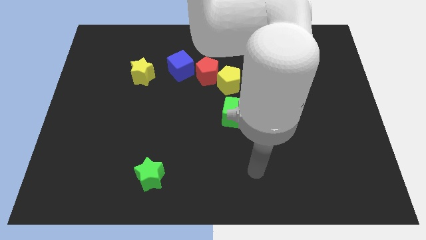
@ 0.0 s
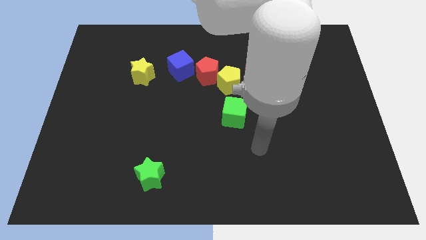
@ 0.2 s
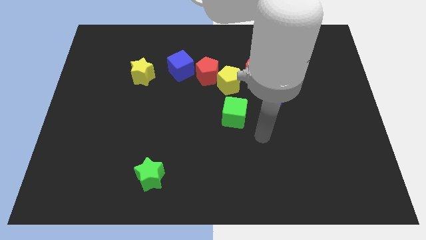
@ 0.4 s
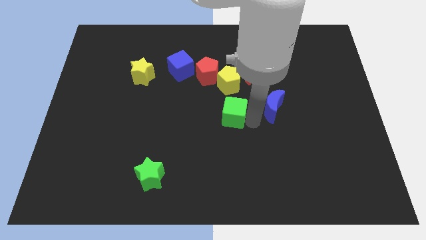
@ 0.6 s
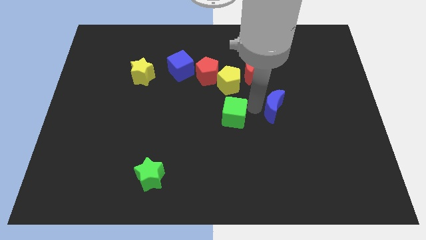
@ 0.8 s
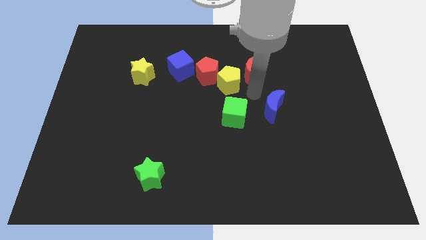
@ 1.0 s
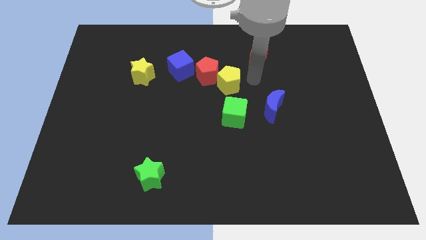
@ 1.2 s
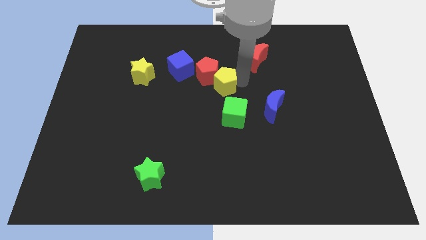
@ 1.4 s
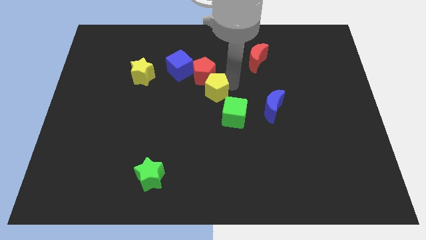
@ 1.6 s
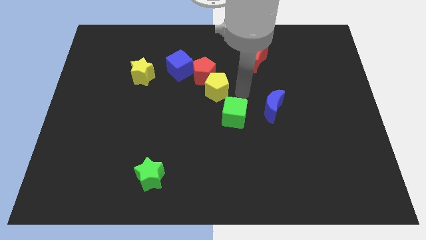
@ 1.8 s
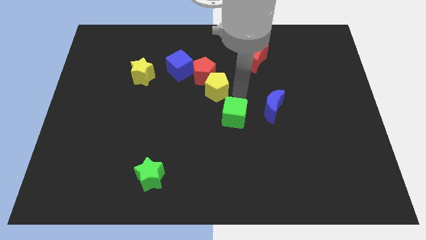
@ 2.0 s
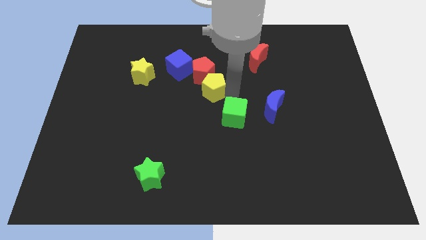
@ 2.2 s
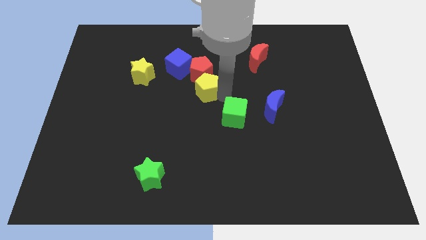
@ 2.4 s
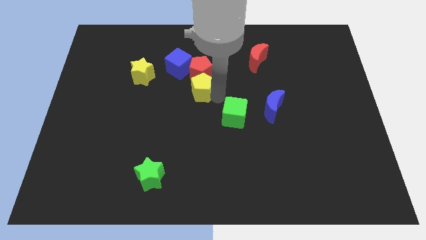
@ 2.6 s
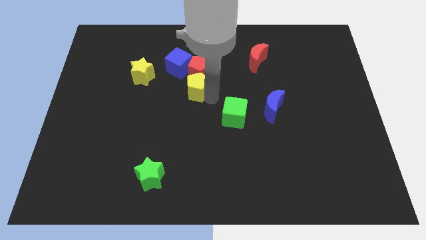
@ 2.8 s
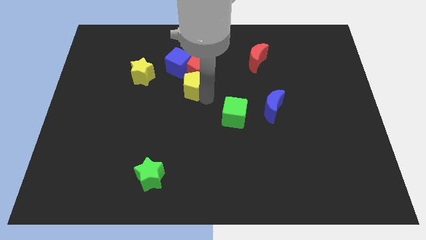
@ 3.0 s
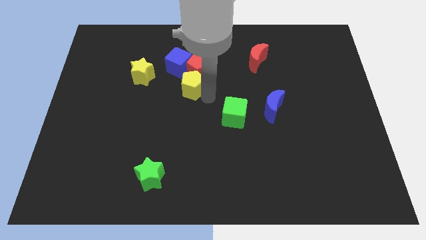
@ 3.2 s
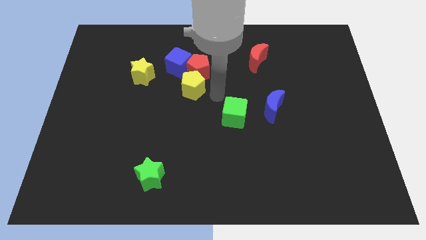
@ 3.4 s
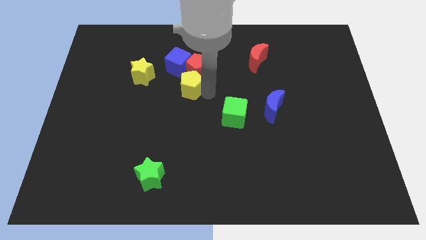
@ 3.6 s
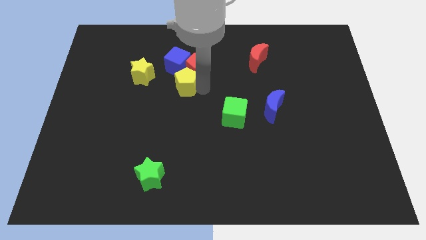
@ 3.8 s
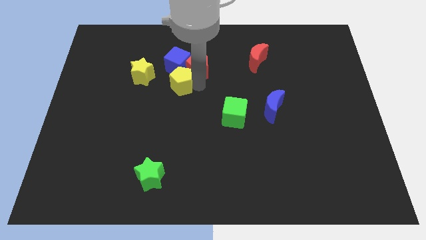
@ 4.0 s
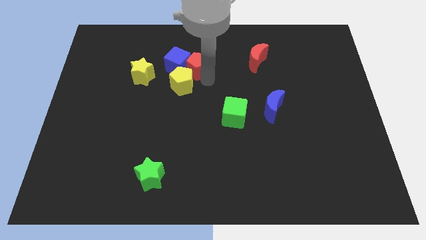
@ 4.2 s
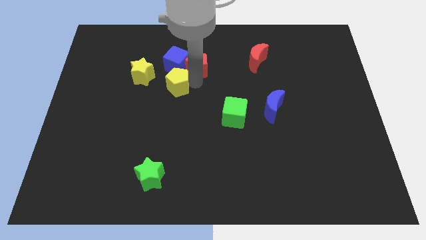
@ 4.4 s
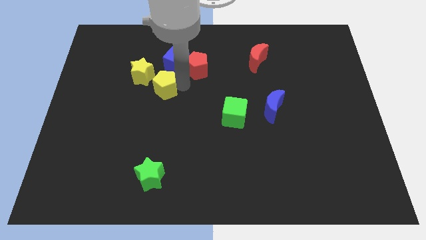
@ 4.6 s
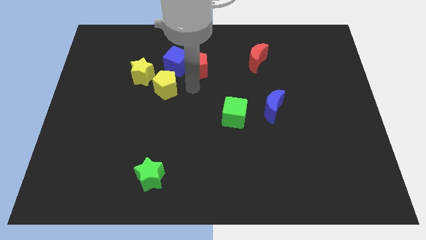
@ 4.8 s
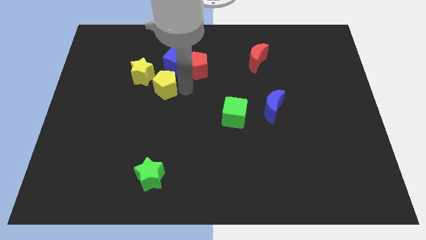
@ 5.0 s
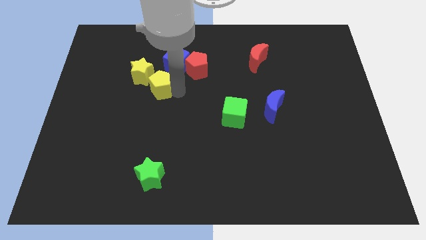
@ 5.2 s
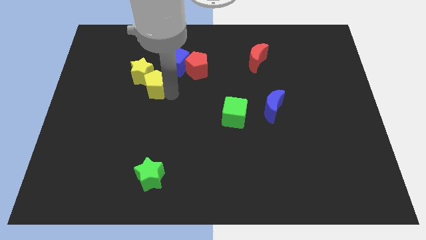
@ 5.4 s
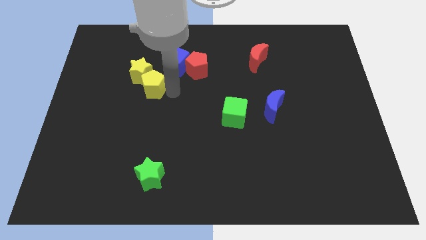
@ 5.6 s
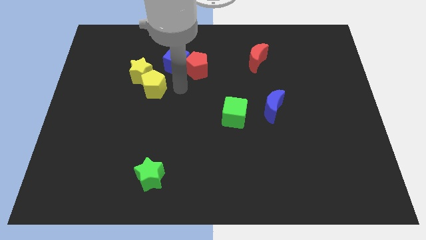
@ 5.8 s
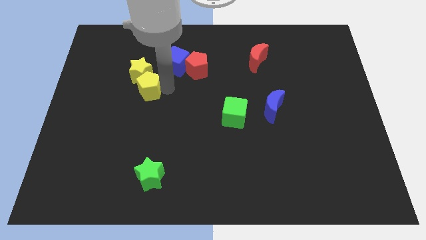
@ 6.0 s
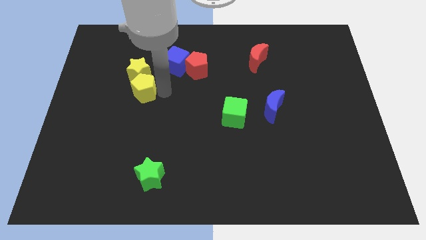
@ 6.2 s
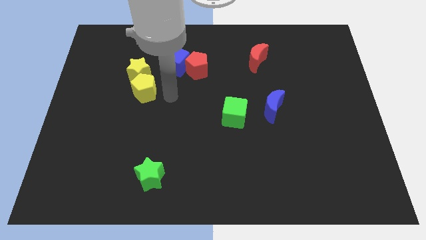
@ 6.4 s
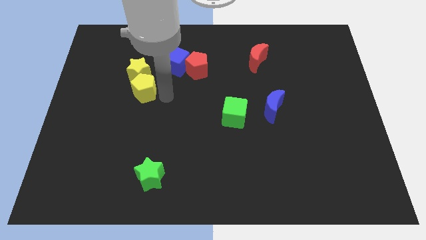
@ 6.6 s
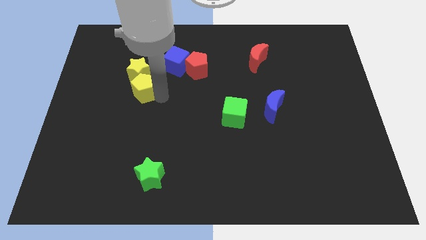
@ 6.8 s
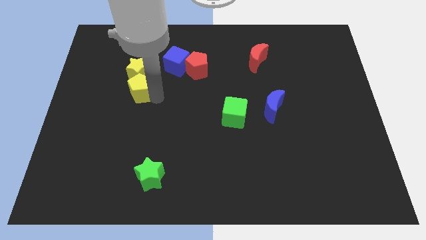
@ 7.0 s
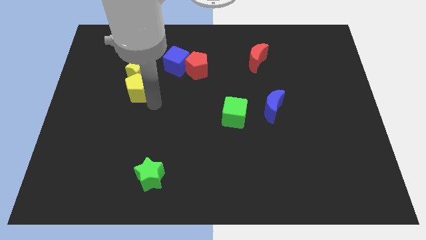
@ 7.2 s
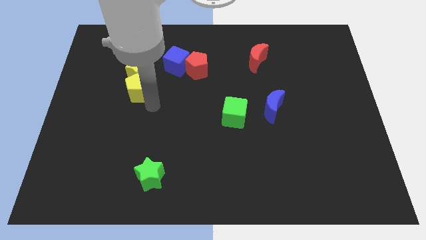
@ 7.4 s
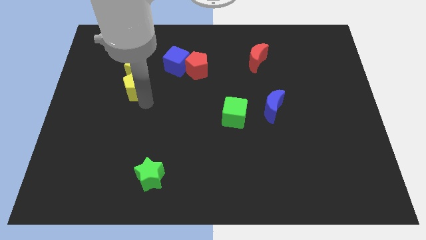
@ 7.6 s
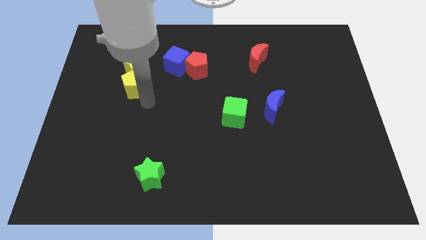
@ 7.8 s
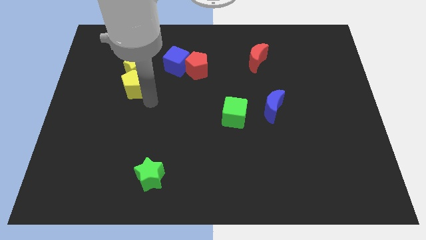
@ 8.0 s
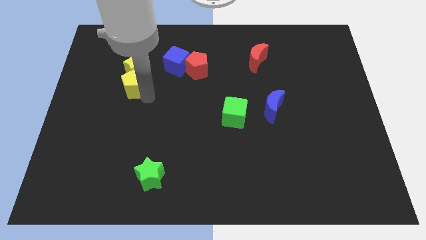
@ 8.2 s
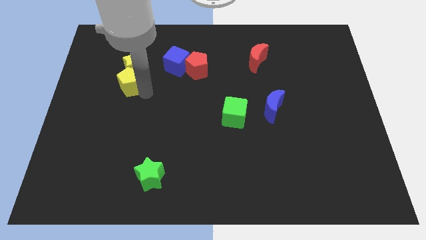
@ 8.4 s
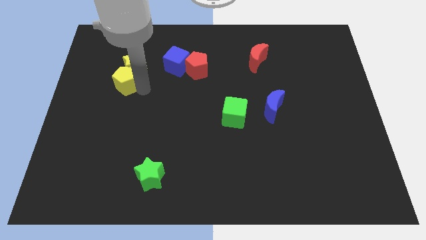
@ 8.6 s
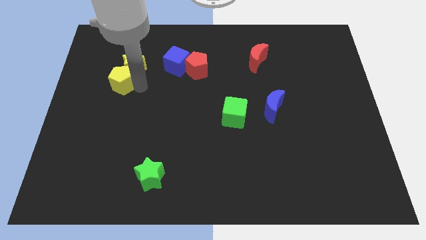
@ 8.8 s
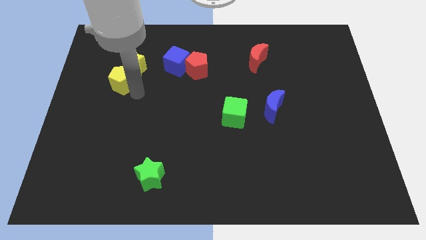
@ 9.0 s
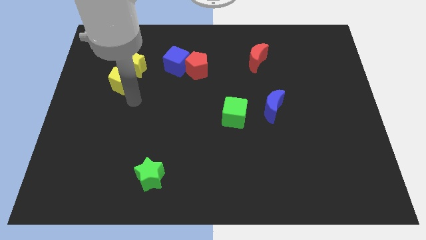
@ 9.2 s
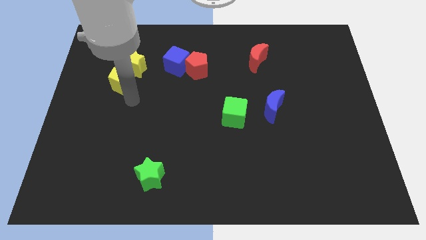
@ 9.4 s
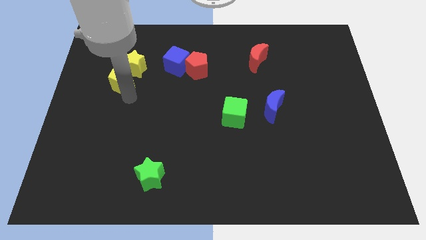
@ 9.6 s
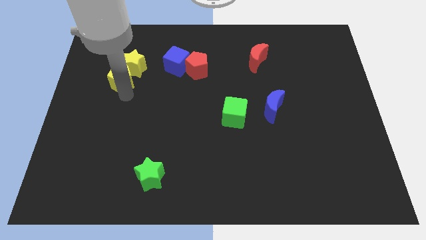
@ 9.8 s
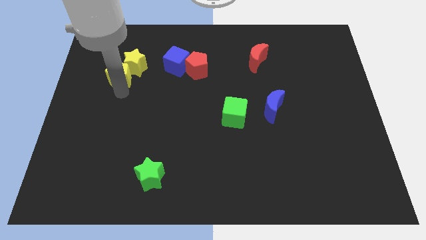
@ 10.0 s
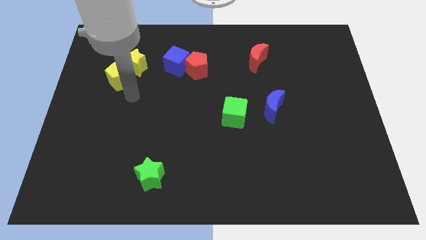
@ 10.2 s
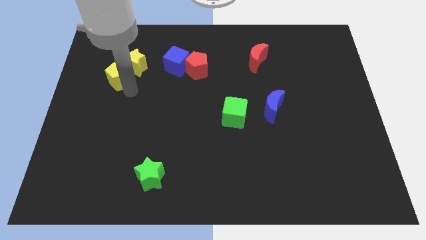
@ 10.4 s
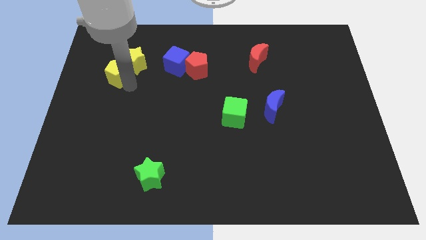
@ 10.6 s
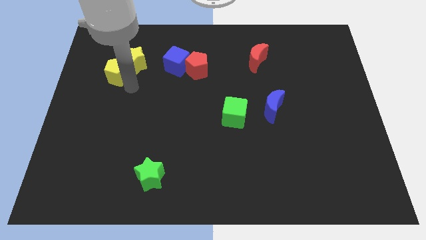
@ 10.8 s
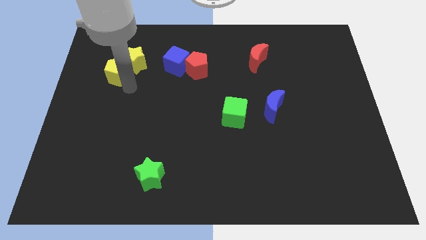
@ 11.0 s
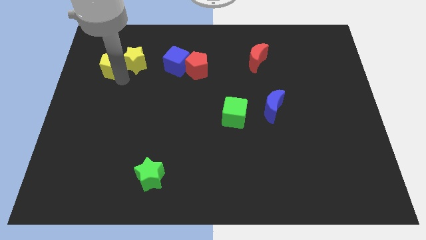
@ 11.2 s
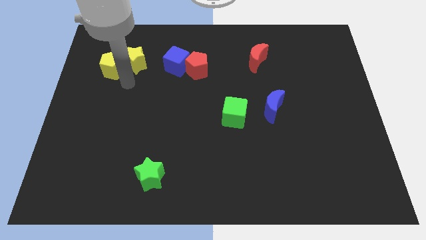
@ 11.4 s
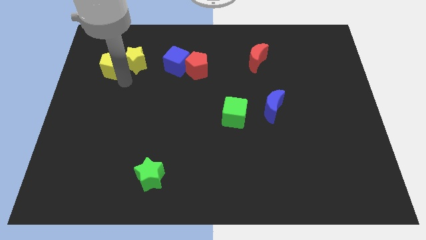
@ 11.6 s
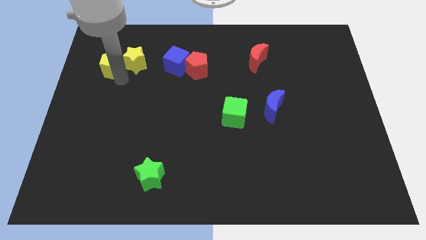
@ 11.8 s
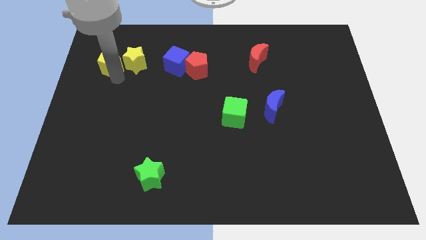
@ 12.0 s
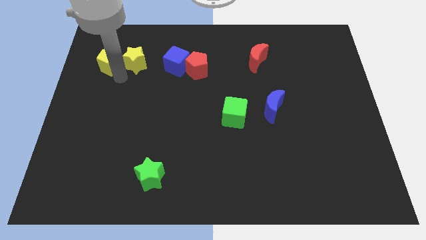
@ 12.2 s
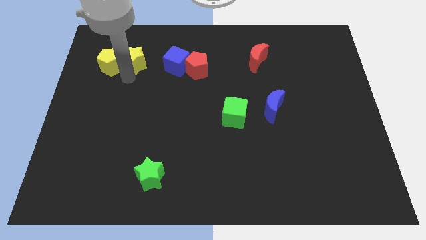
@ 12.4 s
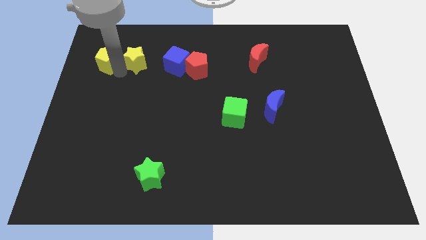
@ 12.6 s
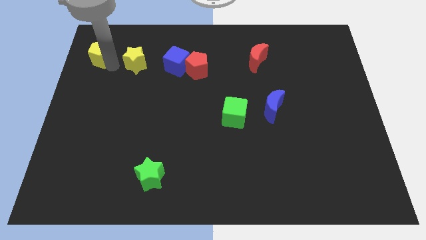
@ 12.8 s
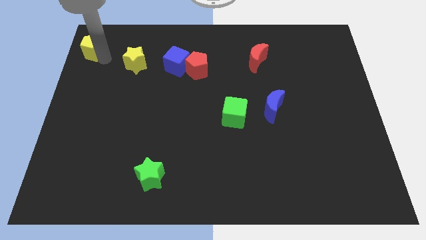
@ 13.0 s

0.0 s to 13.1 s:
push the yellow pentagon to the top left of the board

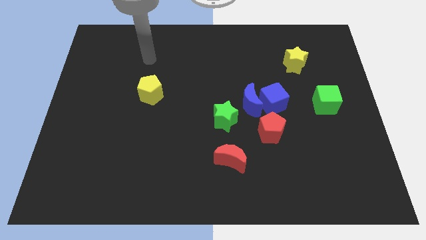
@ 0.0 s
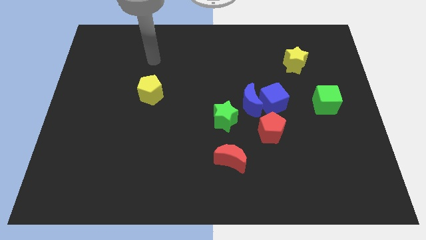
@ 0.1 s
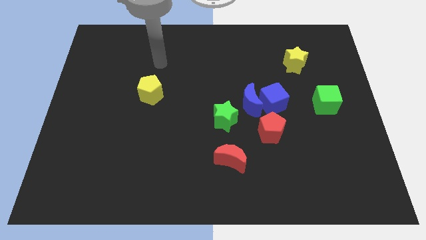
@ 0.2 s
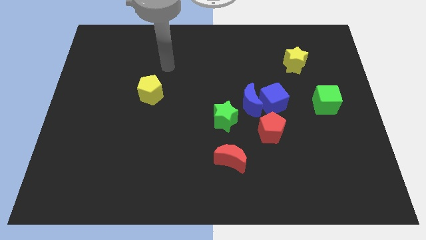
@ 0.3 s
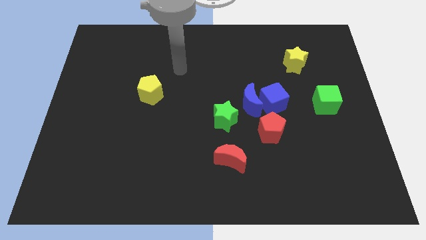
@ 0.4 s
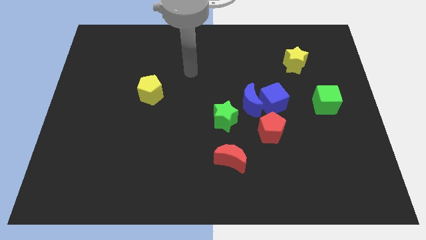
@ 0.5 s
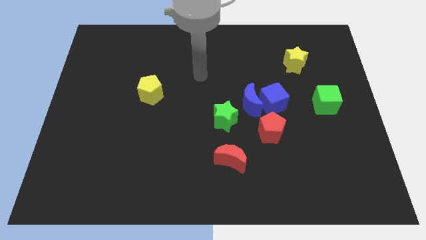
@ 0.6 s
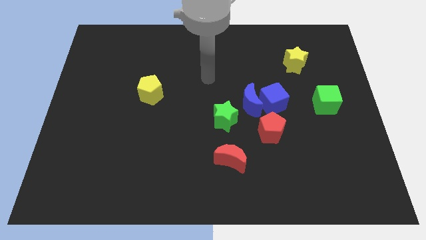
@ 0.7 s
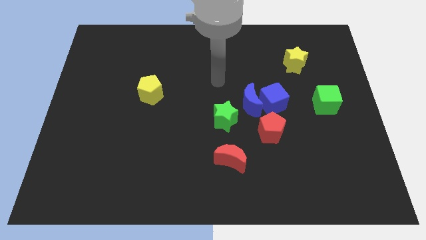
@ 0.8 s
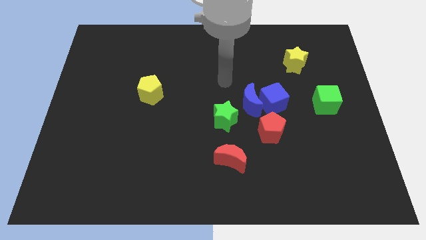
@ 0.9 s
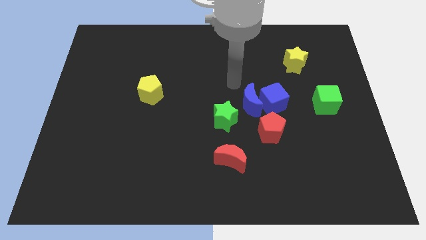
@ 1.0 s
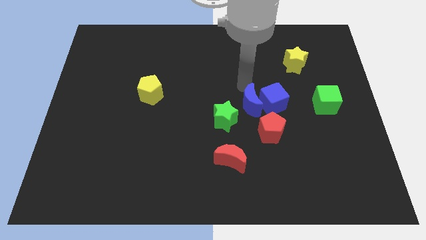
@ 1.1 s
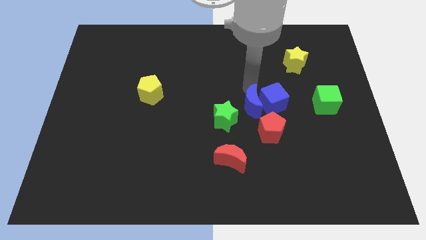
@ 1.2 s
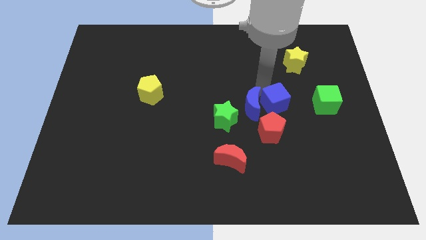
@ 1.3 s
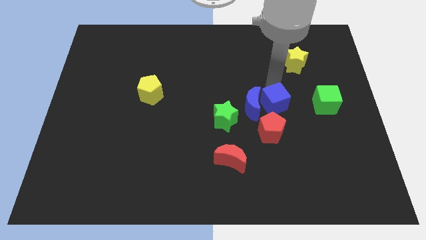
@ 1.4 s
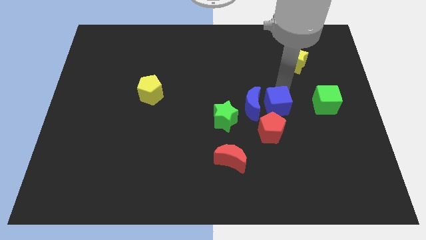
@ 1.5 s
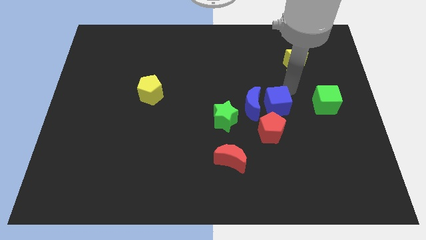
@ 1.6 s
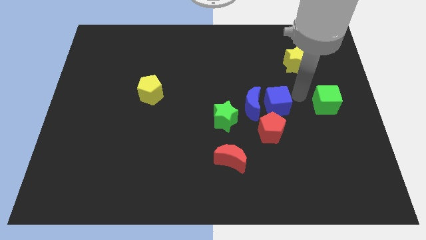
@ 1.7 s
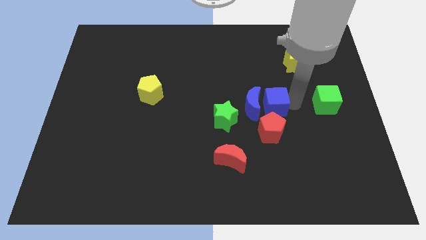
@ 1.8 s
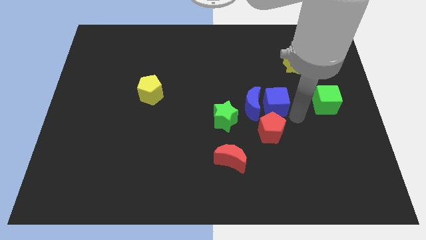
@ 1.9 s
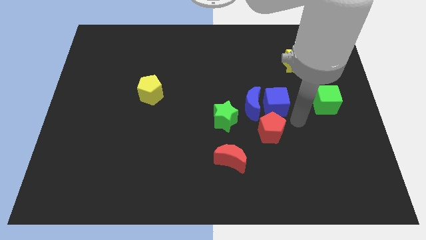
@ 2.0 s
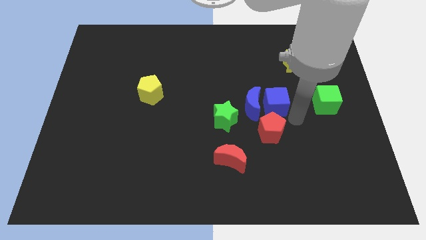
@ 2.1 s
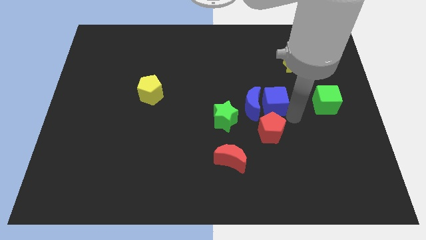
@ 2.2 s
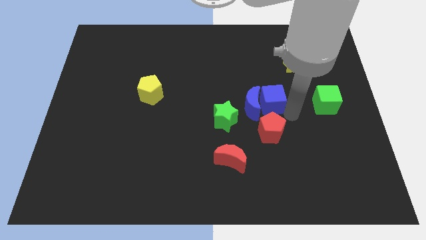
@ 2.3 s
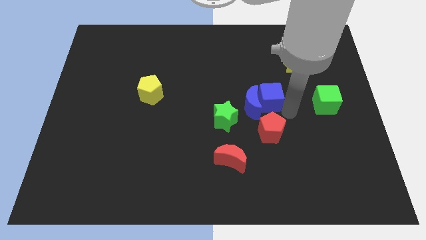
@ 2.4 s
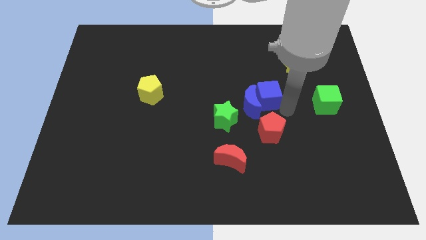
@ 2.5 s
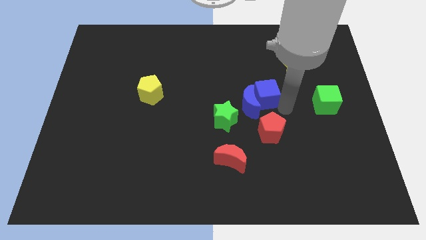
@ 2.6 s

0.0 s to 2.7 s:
move the blue cube to the middle of the board
